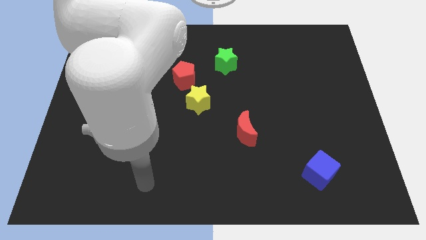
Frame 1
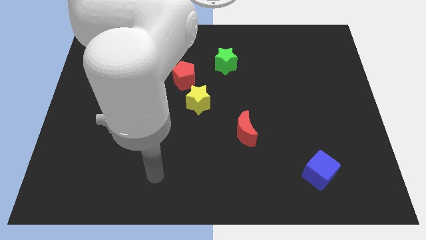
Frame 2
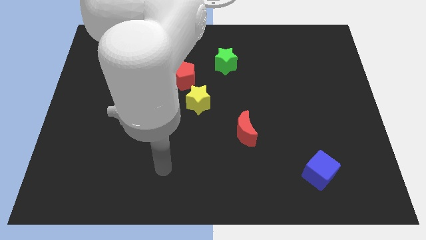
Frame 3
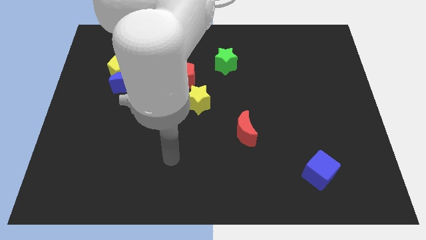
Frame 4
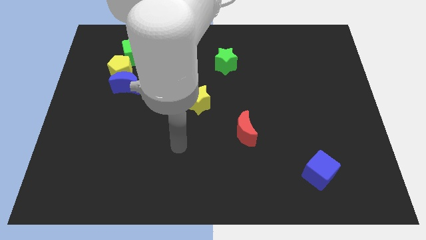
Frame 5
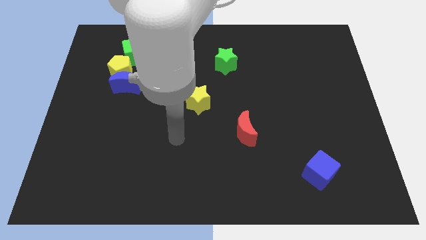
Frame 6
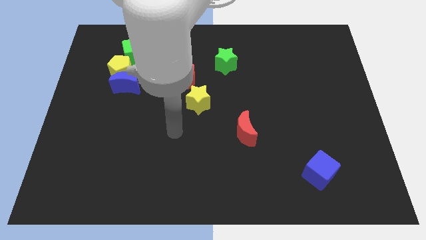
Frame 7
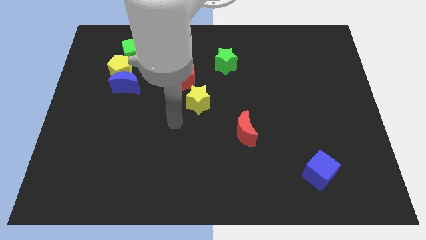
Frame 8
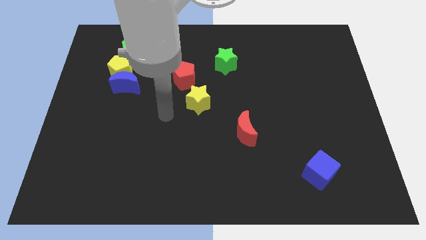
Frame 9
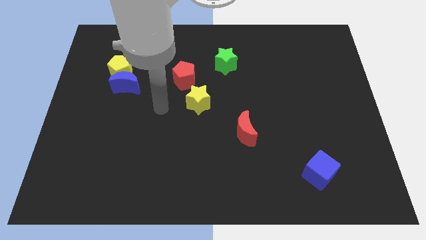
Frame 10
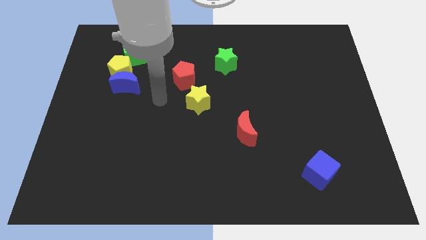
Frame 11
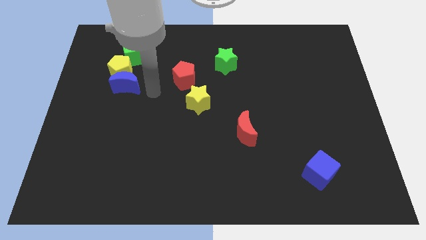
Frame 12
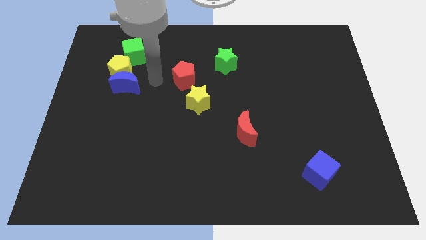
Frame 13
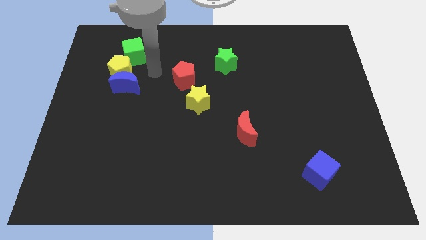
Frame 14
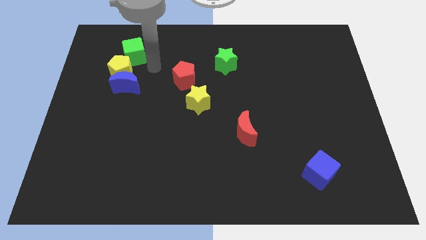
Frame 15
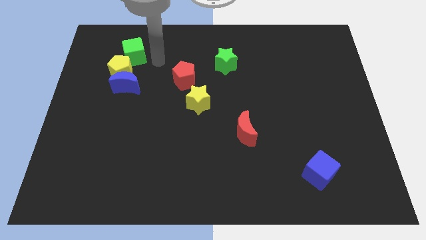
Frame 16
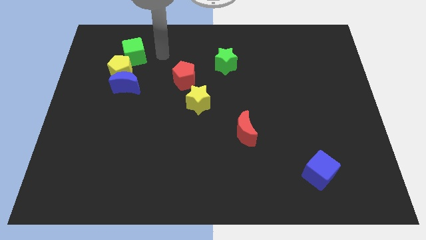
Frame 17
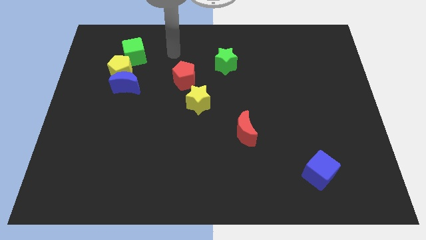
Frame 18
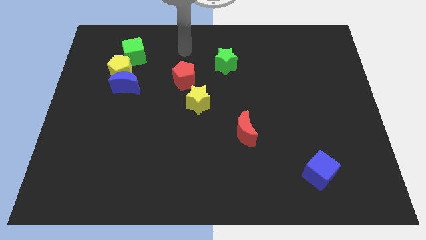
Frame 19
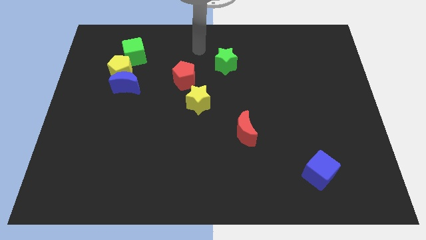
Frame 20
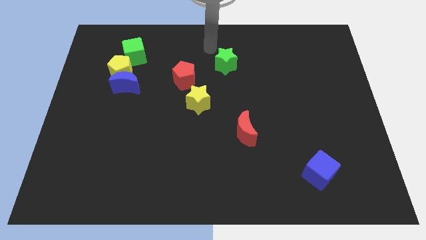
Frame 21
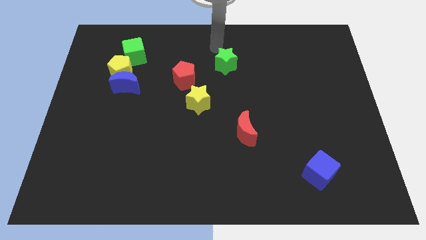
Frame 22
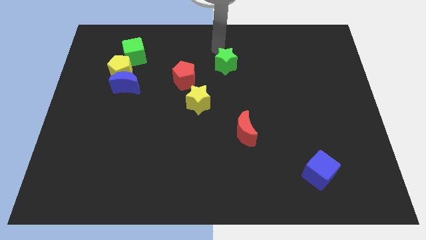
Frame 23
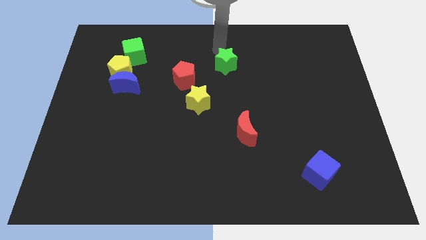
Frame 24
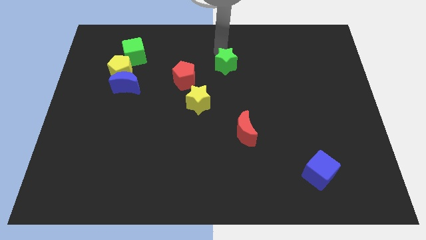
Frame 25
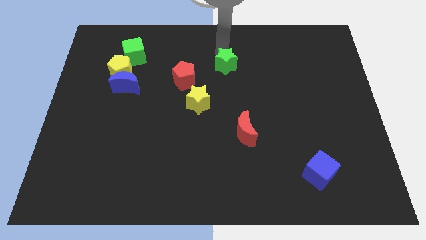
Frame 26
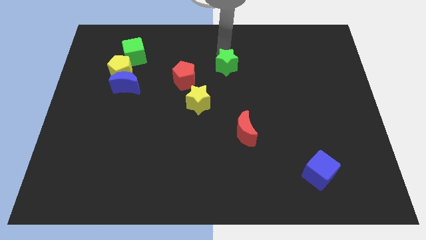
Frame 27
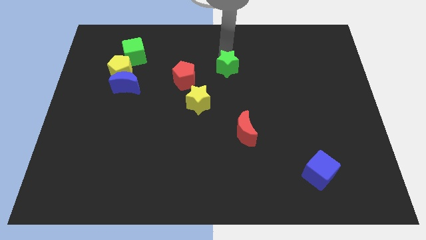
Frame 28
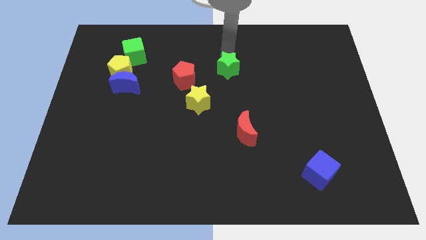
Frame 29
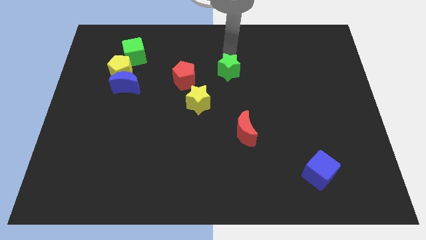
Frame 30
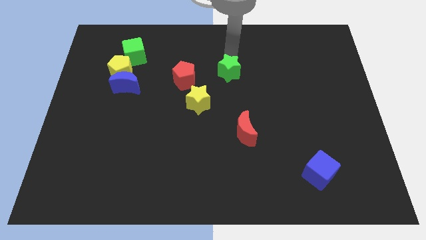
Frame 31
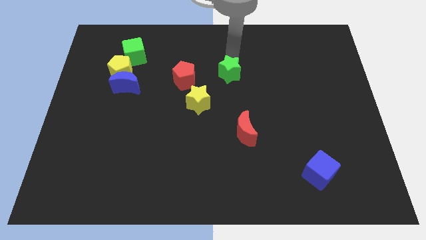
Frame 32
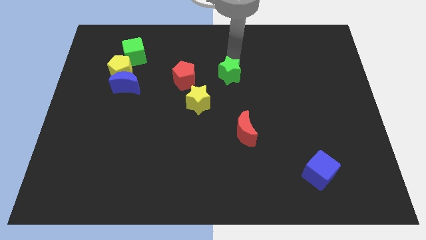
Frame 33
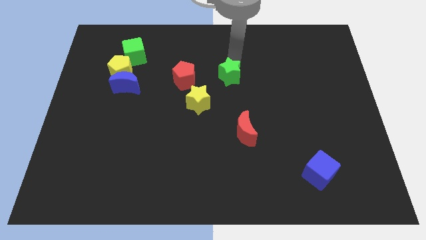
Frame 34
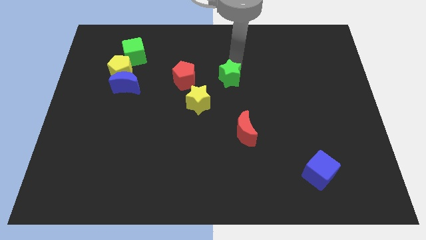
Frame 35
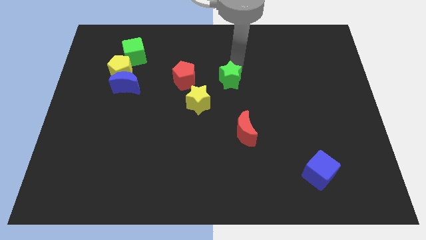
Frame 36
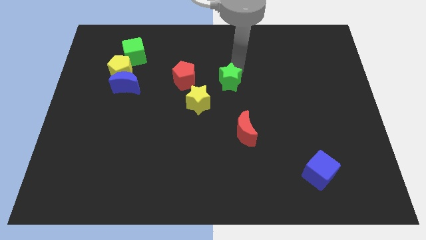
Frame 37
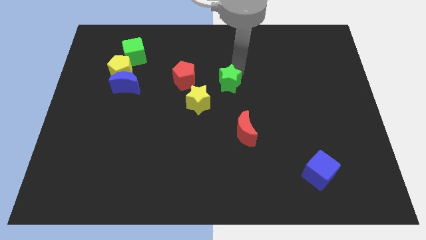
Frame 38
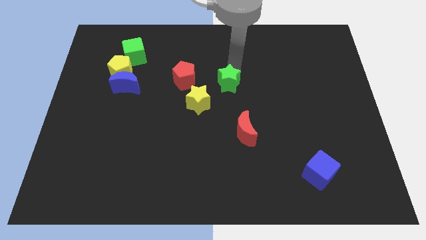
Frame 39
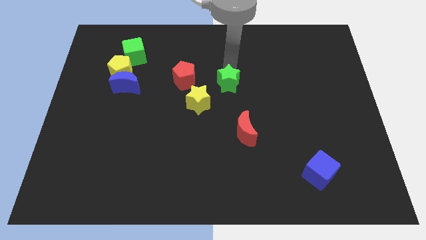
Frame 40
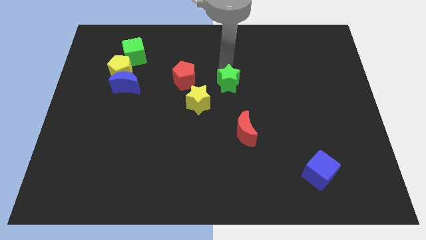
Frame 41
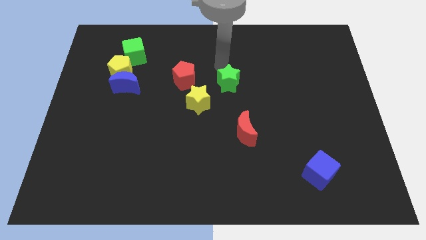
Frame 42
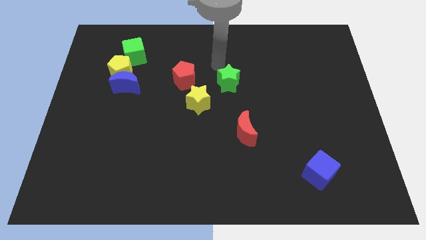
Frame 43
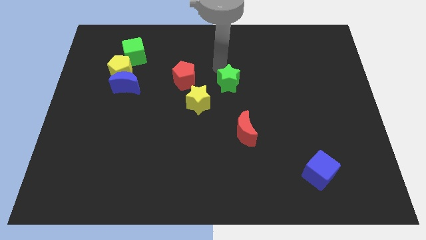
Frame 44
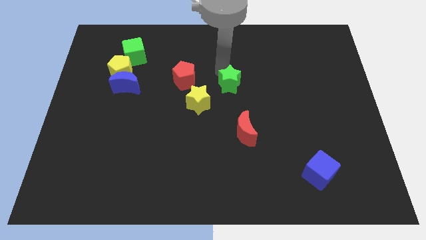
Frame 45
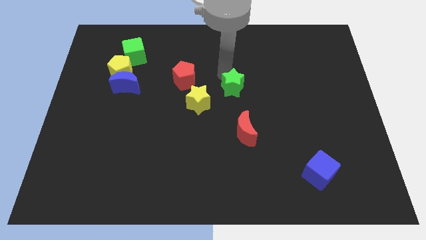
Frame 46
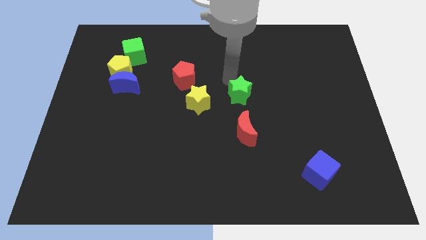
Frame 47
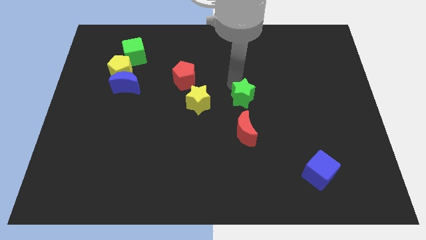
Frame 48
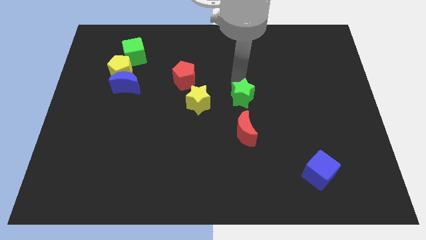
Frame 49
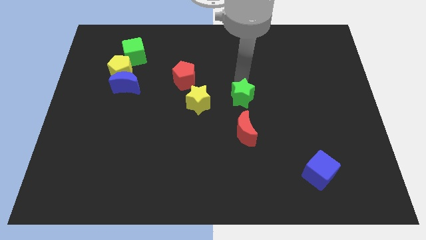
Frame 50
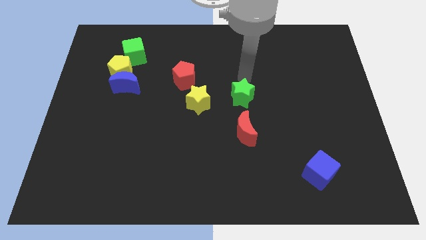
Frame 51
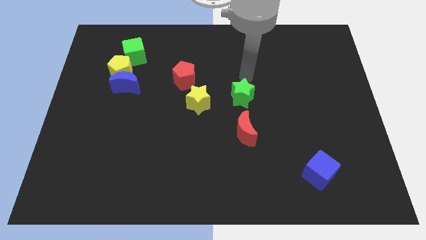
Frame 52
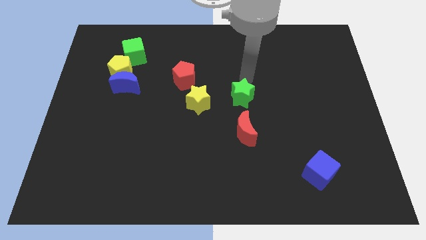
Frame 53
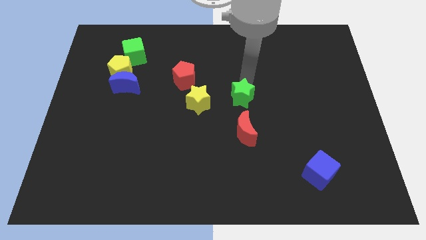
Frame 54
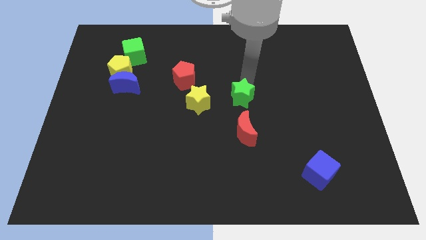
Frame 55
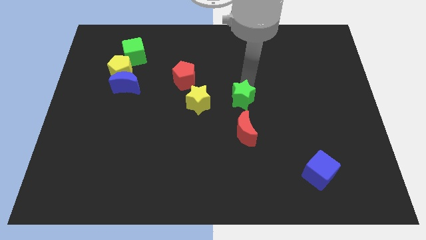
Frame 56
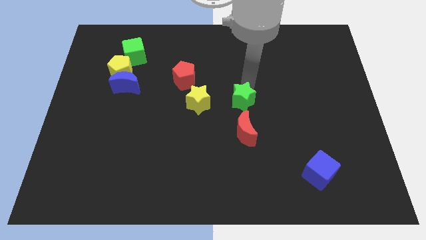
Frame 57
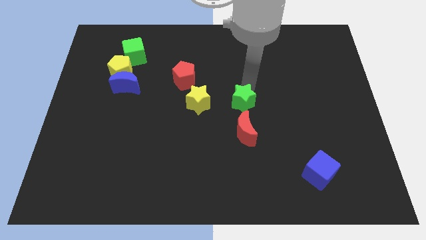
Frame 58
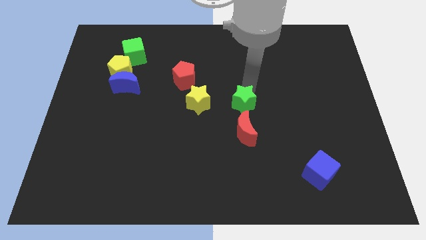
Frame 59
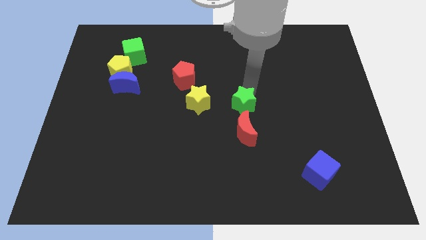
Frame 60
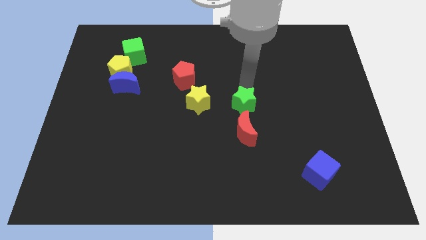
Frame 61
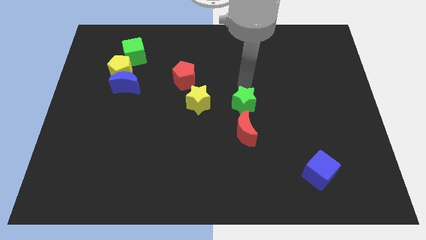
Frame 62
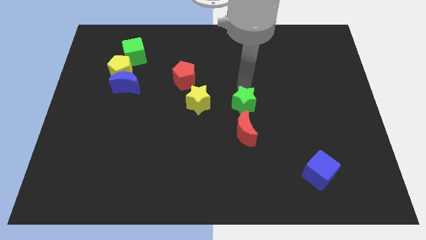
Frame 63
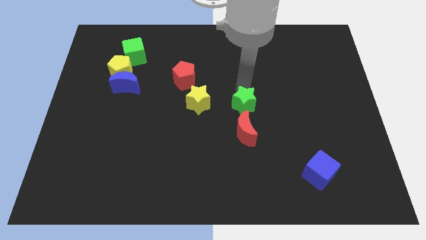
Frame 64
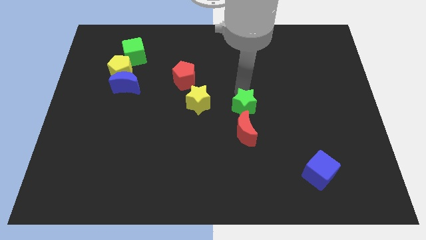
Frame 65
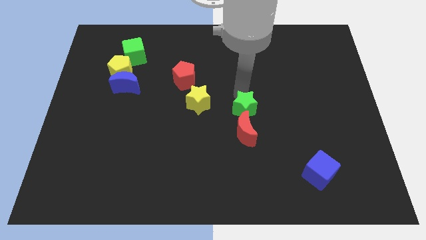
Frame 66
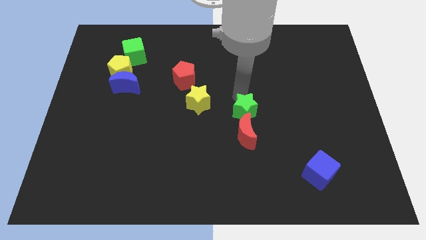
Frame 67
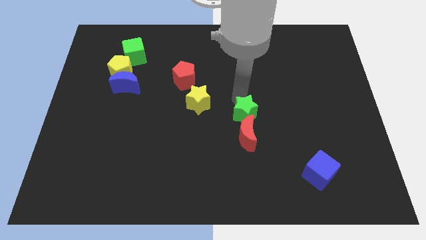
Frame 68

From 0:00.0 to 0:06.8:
put the green star next to the red moon
